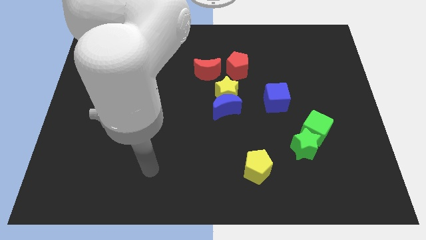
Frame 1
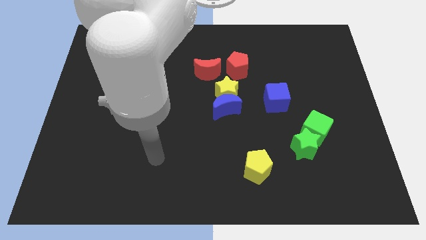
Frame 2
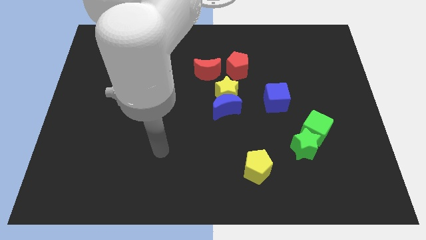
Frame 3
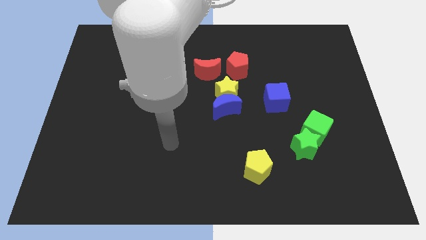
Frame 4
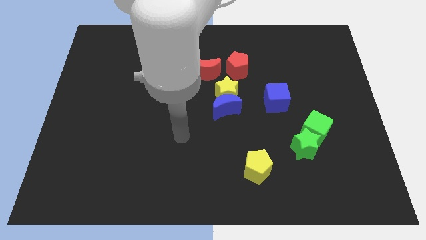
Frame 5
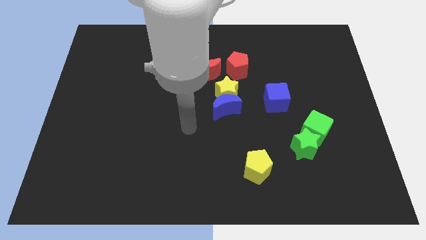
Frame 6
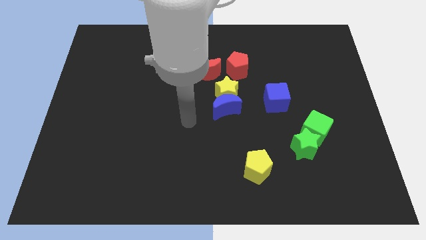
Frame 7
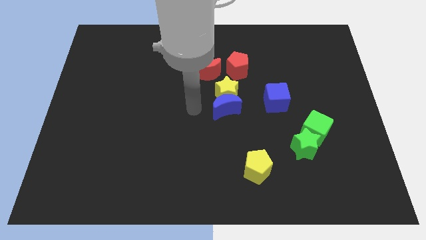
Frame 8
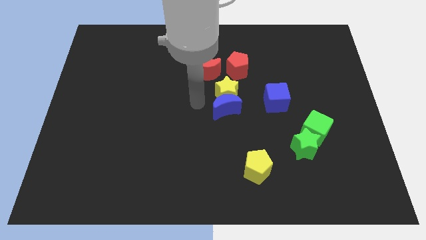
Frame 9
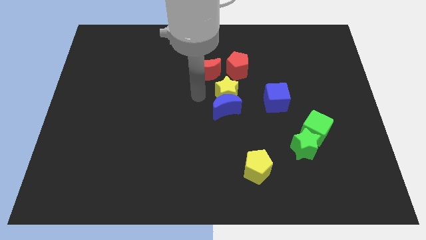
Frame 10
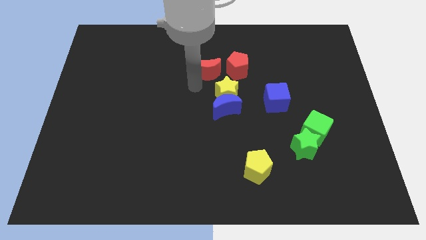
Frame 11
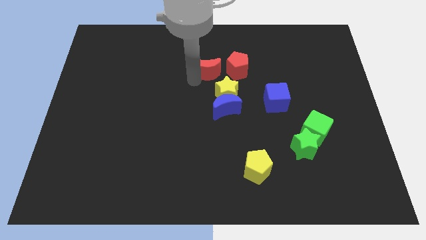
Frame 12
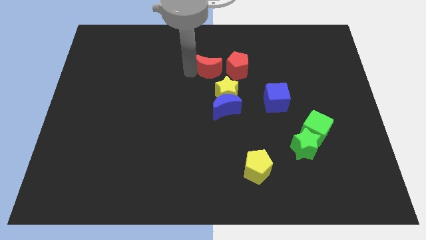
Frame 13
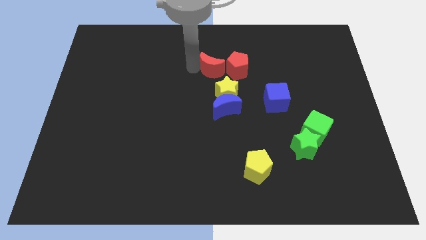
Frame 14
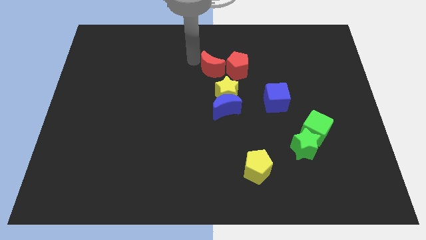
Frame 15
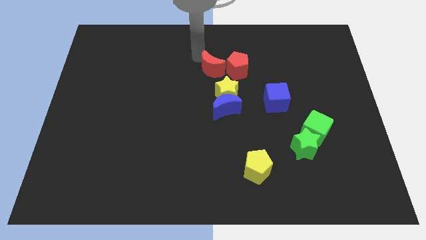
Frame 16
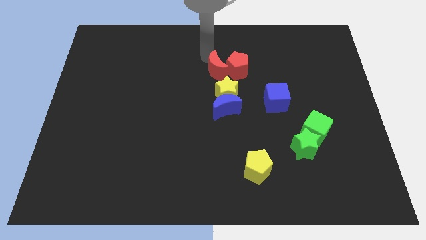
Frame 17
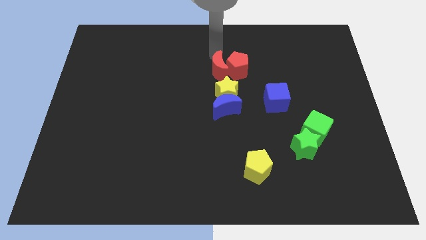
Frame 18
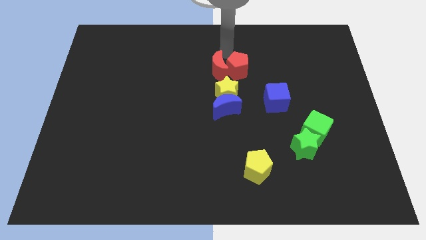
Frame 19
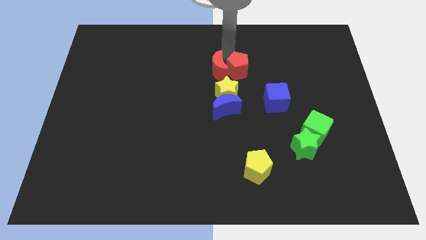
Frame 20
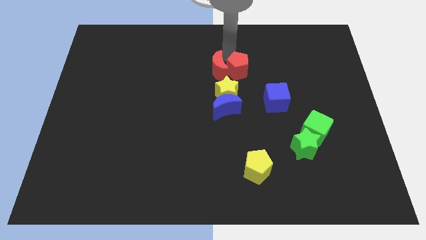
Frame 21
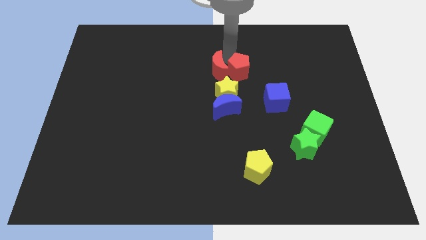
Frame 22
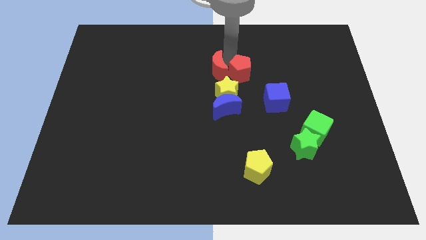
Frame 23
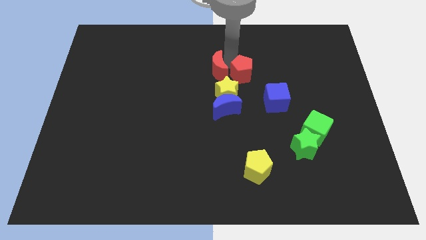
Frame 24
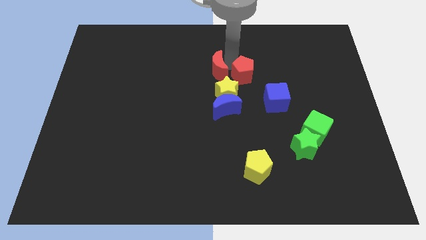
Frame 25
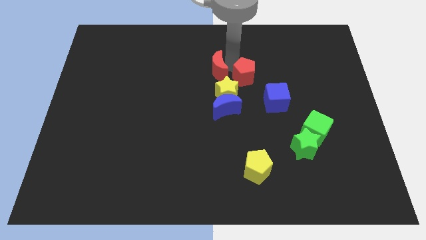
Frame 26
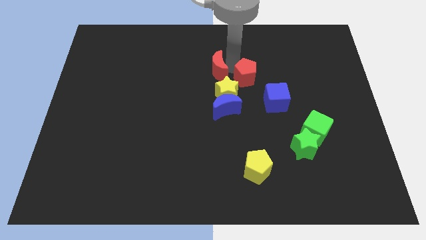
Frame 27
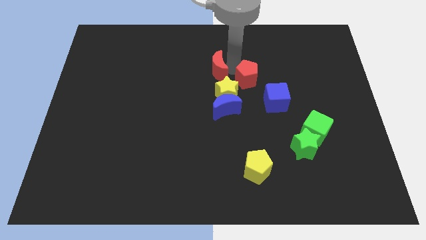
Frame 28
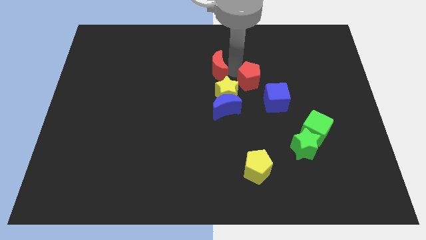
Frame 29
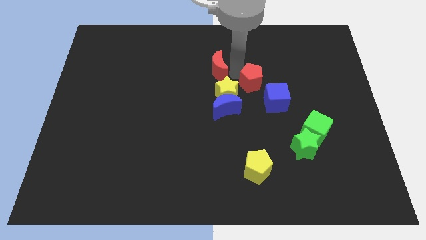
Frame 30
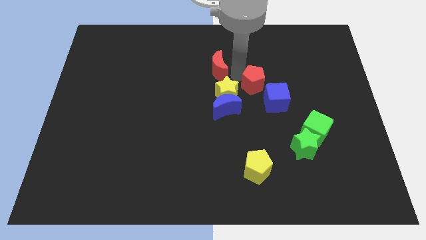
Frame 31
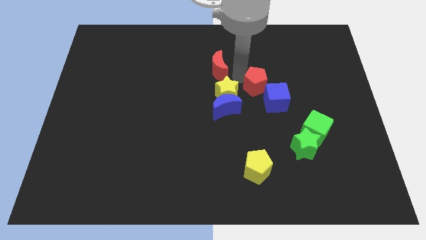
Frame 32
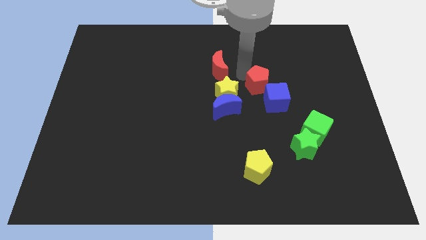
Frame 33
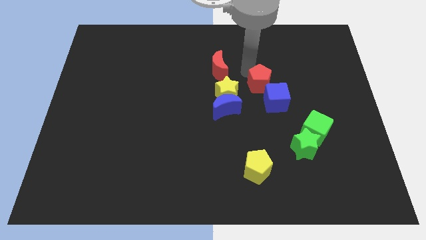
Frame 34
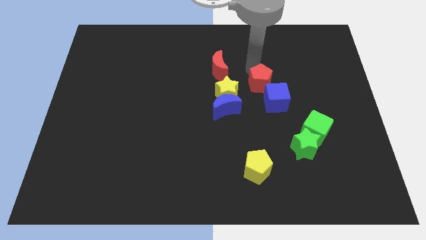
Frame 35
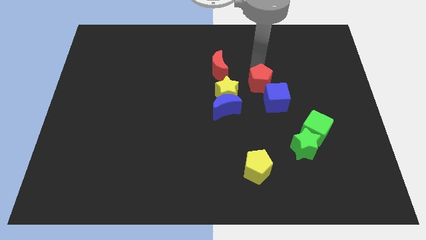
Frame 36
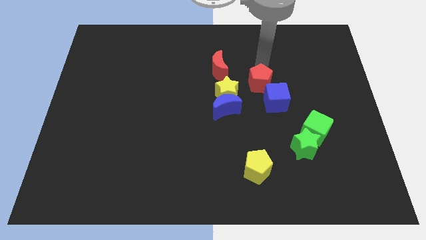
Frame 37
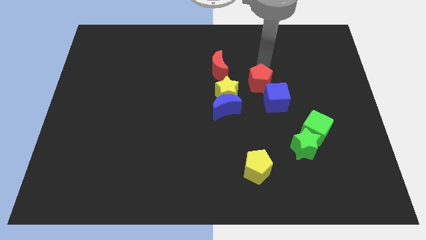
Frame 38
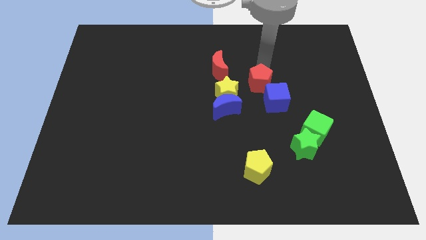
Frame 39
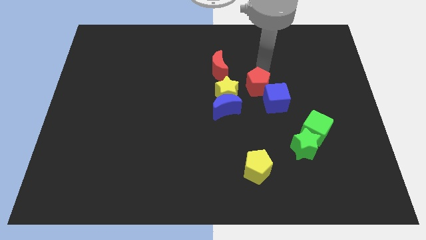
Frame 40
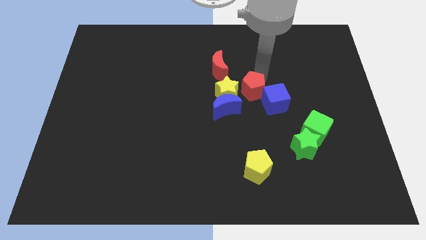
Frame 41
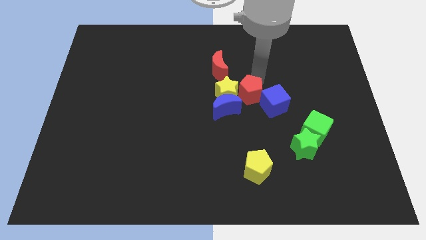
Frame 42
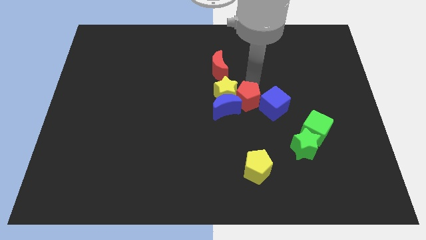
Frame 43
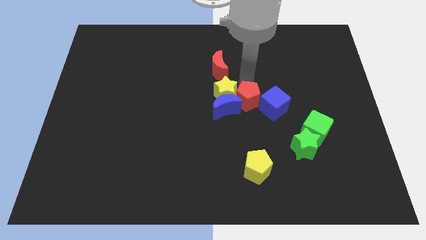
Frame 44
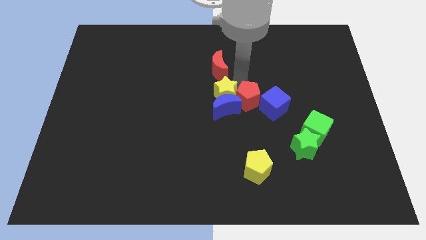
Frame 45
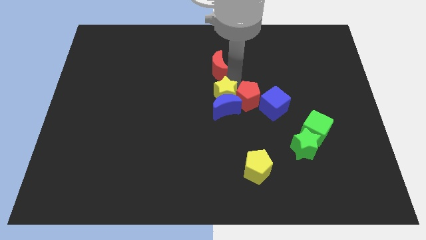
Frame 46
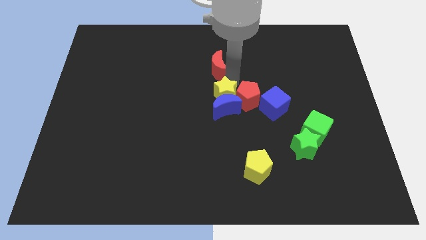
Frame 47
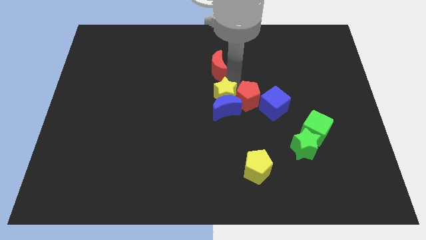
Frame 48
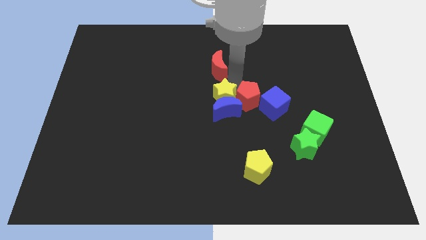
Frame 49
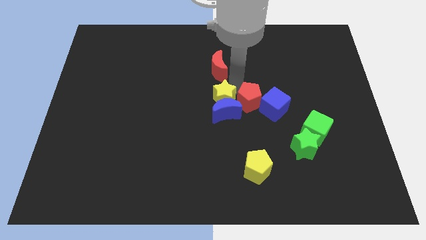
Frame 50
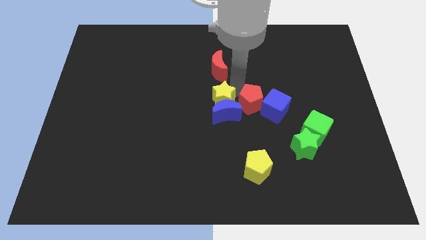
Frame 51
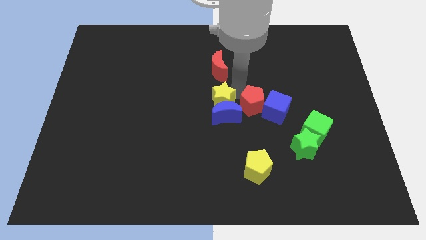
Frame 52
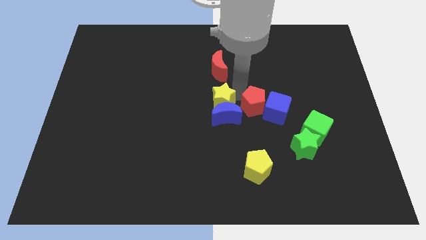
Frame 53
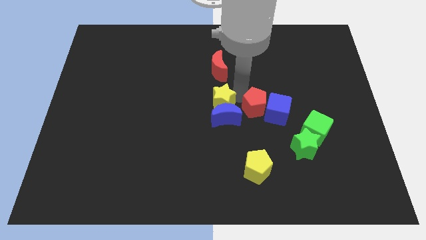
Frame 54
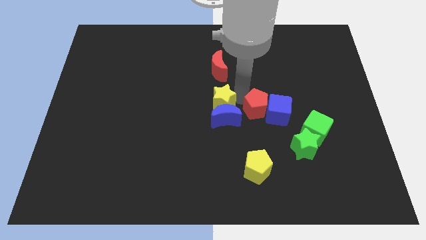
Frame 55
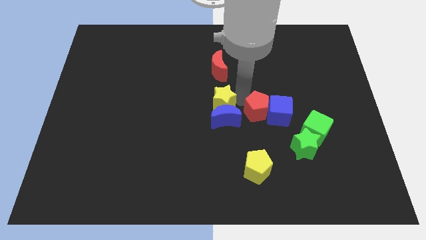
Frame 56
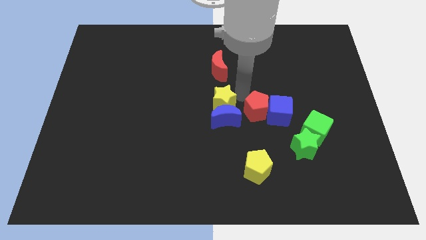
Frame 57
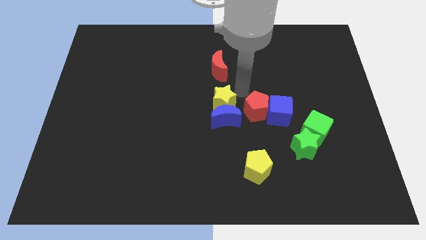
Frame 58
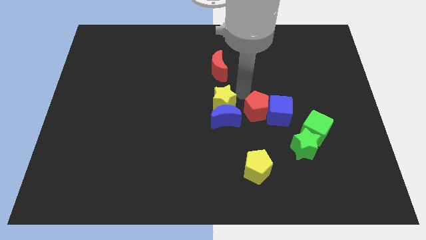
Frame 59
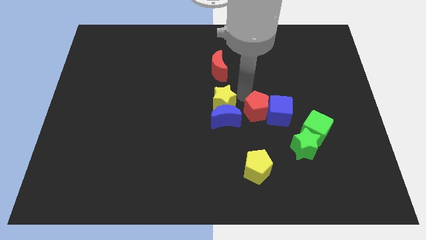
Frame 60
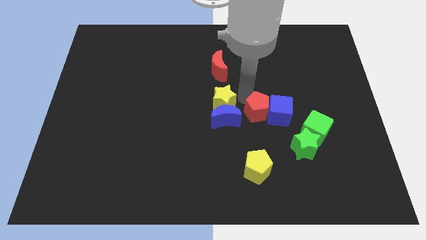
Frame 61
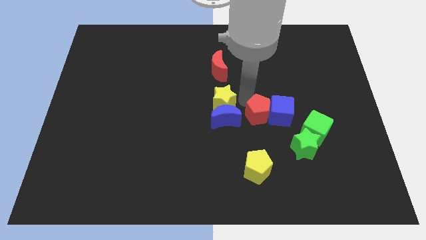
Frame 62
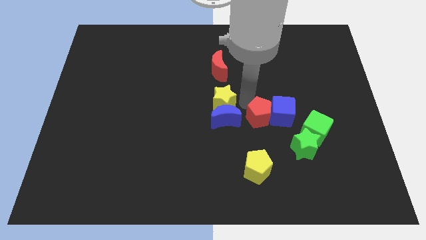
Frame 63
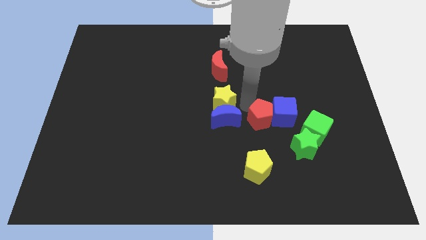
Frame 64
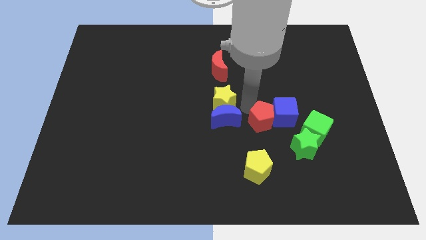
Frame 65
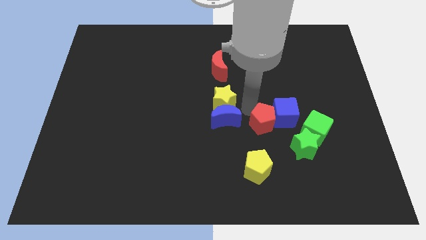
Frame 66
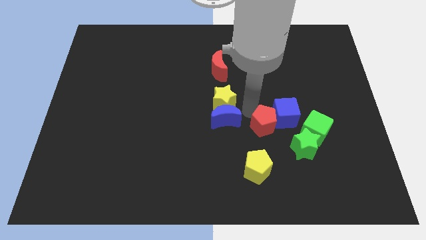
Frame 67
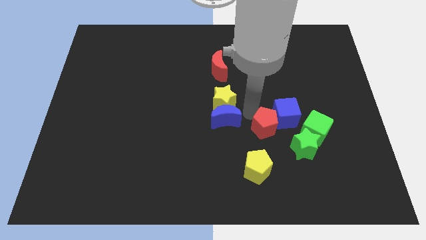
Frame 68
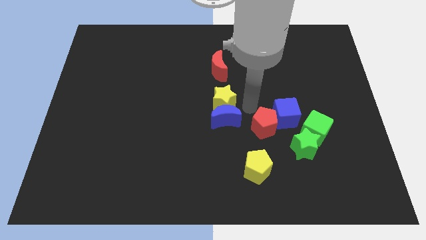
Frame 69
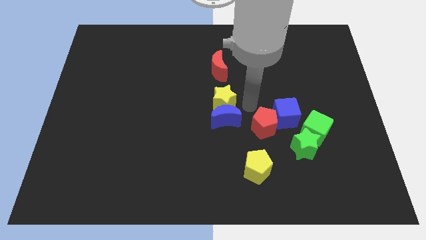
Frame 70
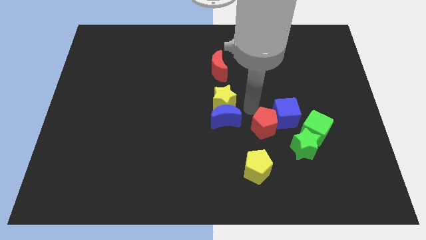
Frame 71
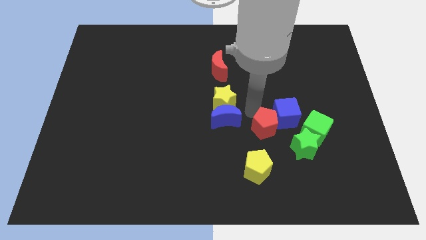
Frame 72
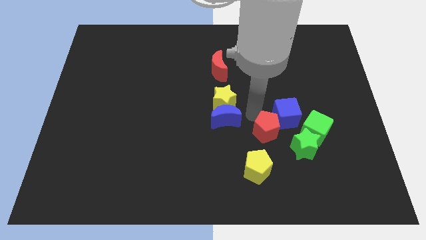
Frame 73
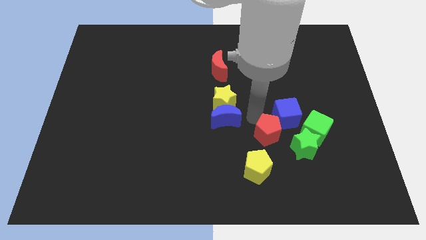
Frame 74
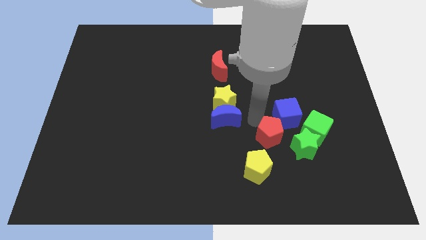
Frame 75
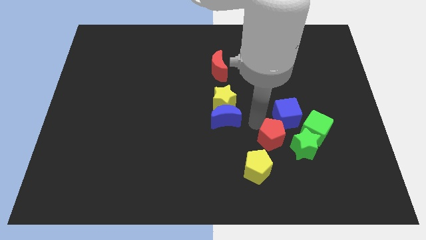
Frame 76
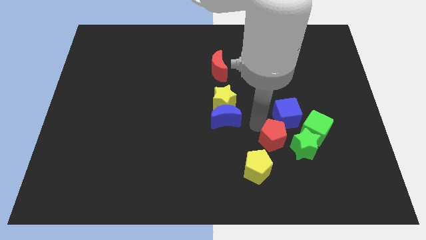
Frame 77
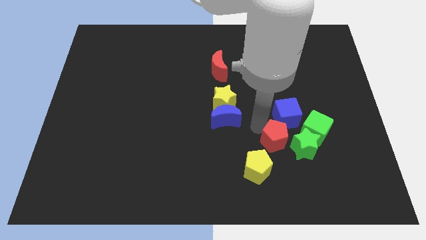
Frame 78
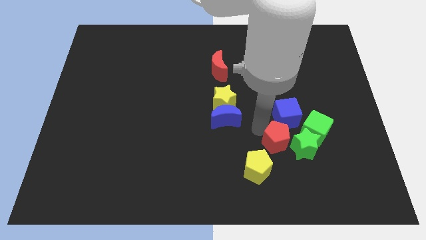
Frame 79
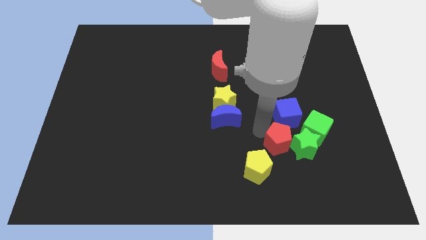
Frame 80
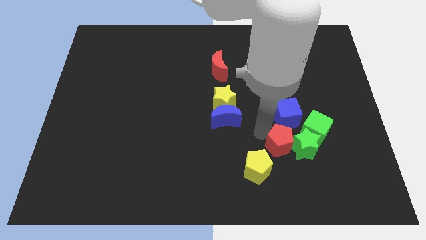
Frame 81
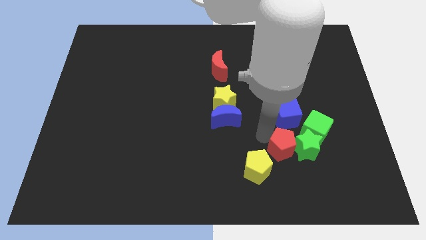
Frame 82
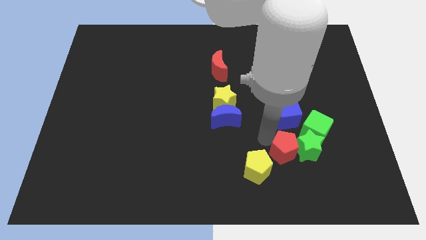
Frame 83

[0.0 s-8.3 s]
slide the red pentagon right of the yellow pentagon
